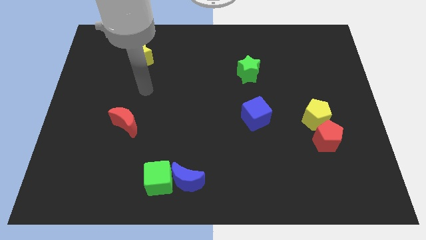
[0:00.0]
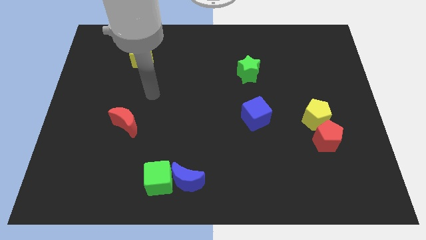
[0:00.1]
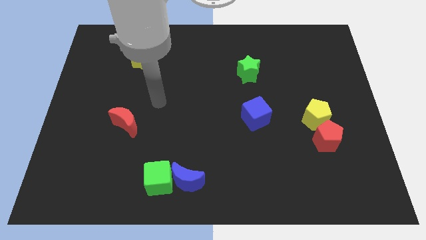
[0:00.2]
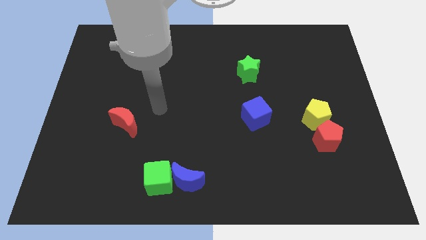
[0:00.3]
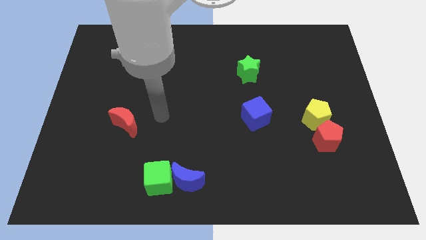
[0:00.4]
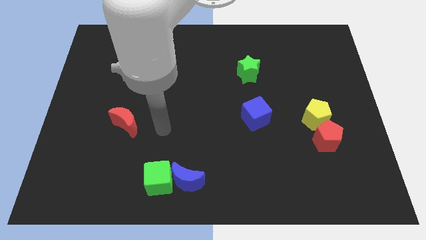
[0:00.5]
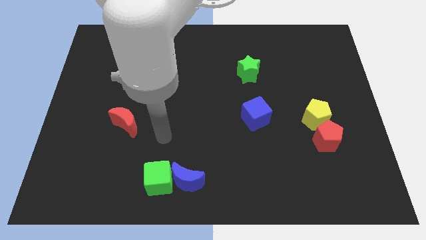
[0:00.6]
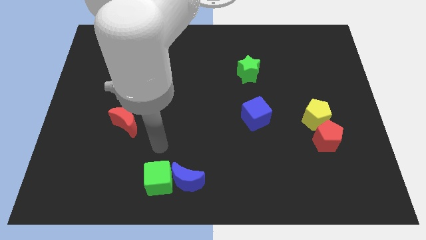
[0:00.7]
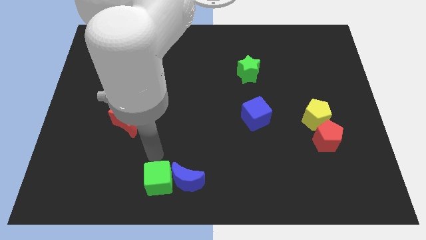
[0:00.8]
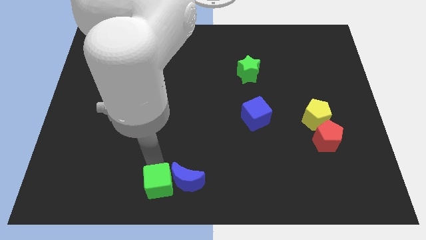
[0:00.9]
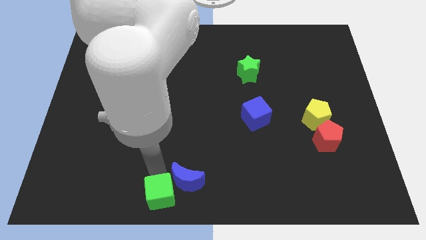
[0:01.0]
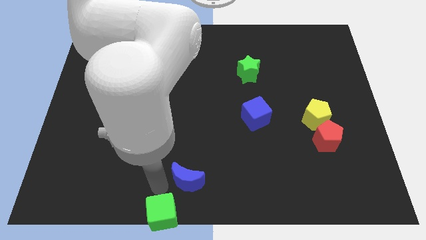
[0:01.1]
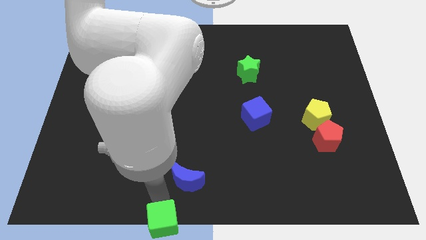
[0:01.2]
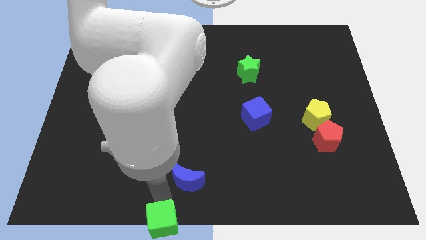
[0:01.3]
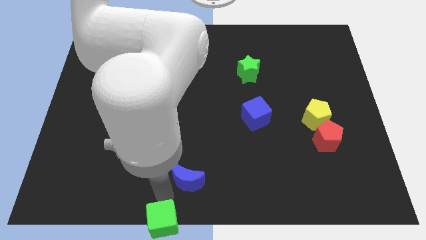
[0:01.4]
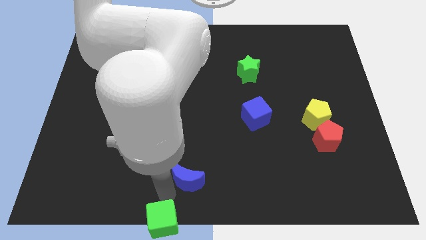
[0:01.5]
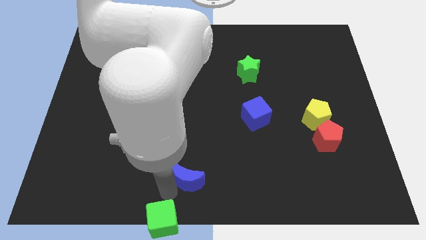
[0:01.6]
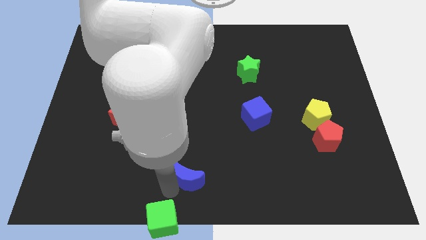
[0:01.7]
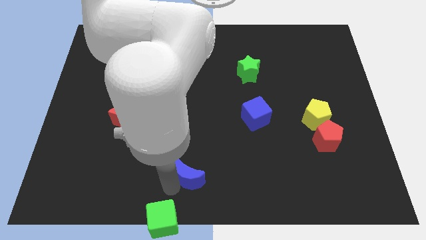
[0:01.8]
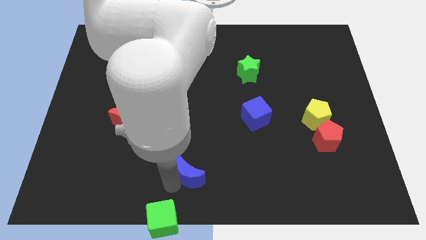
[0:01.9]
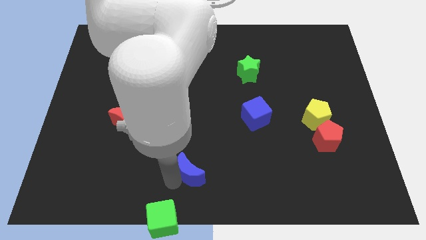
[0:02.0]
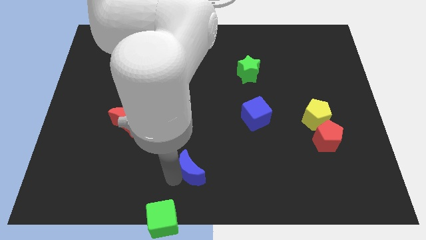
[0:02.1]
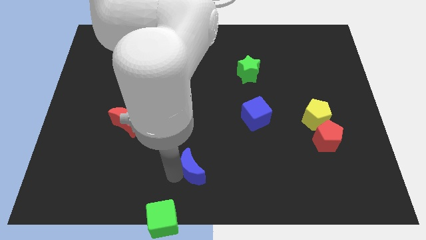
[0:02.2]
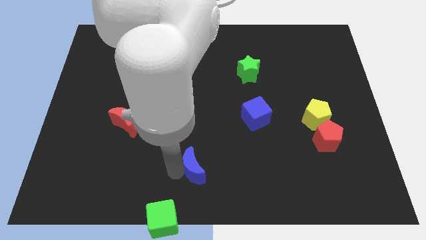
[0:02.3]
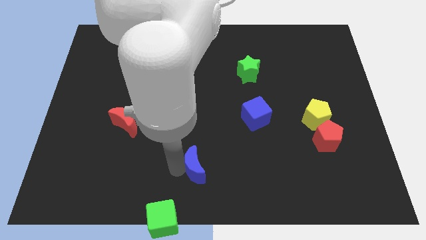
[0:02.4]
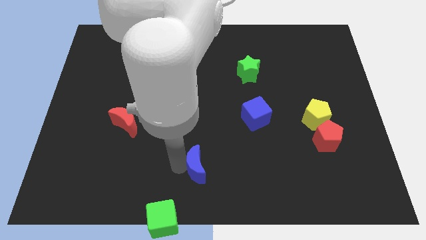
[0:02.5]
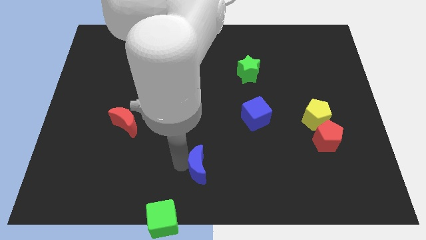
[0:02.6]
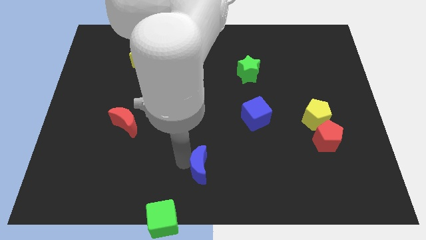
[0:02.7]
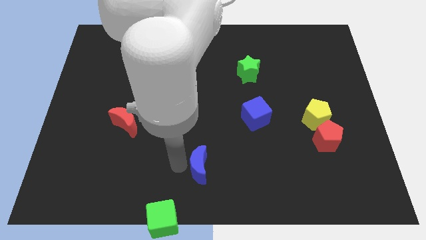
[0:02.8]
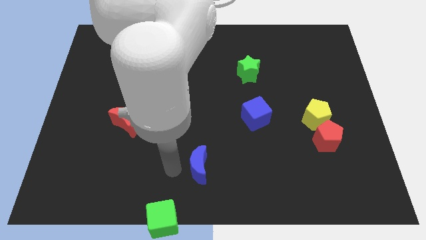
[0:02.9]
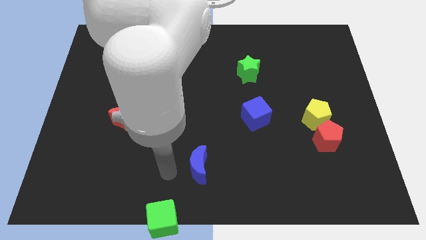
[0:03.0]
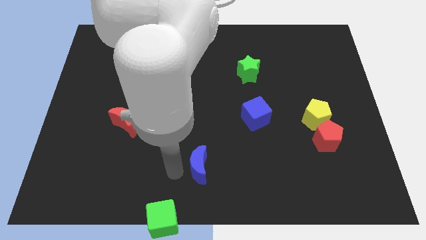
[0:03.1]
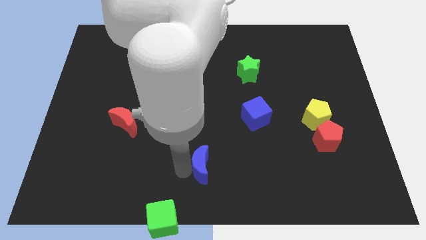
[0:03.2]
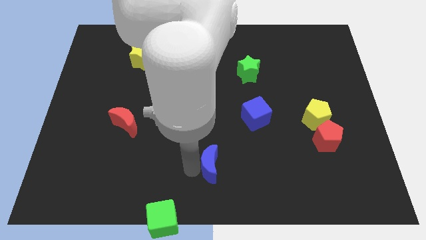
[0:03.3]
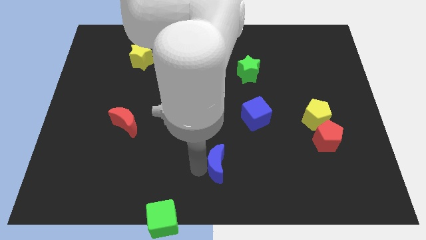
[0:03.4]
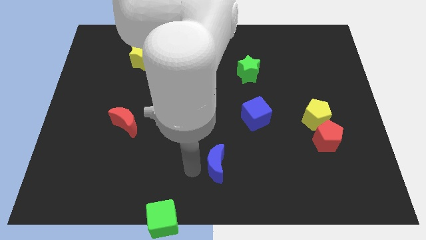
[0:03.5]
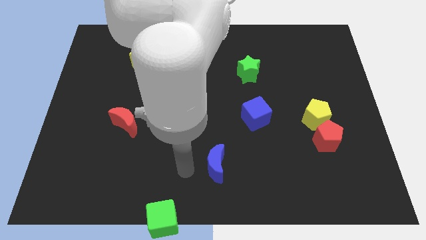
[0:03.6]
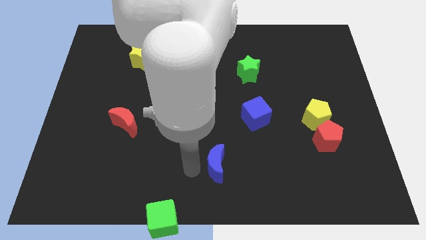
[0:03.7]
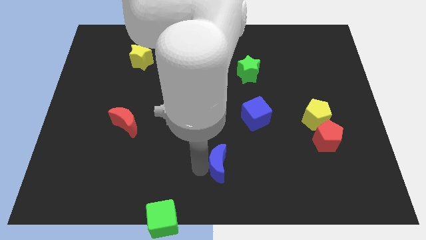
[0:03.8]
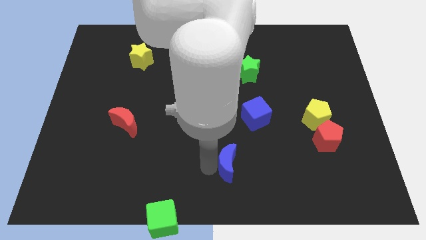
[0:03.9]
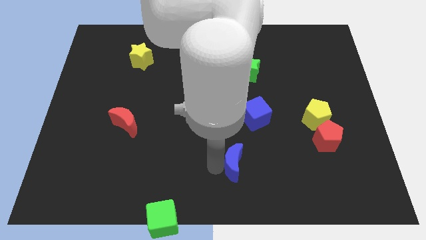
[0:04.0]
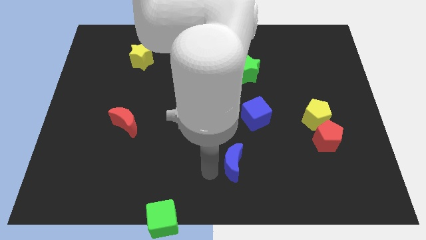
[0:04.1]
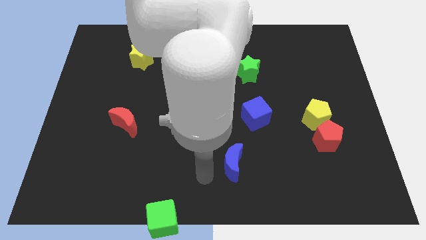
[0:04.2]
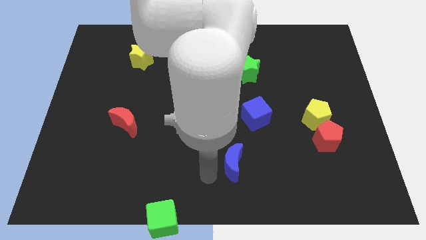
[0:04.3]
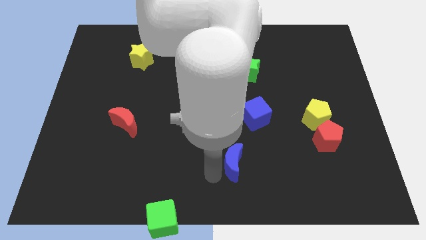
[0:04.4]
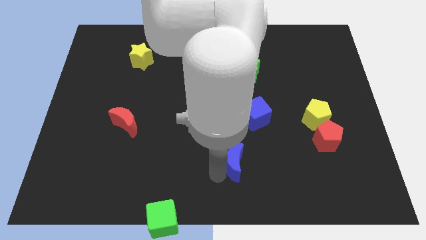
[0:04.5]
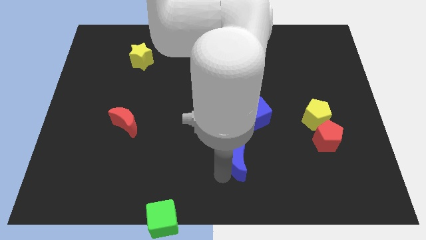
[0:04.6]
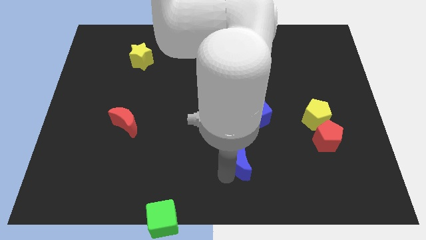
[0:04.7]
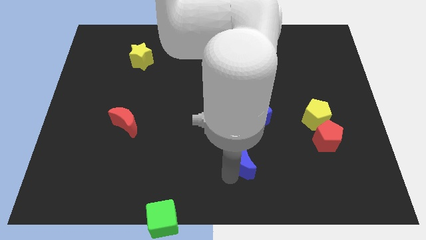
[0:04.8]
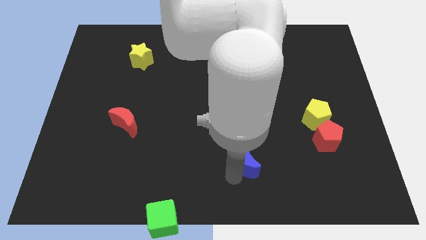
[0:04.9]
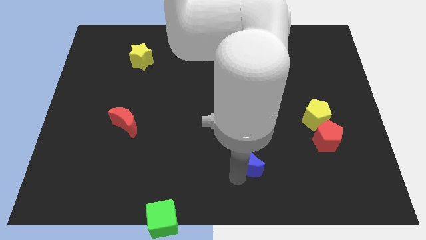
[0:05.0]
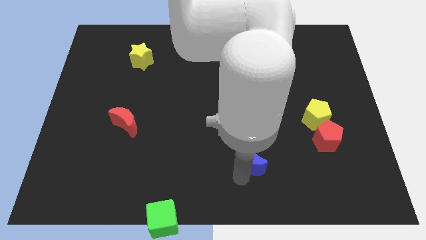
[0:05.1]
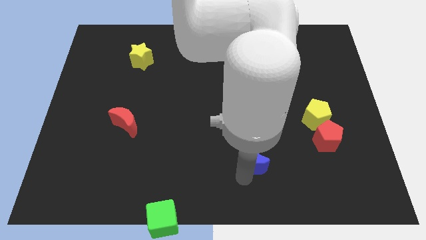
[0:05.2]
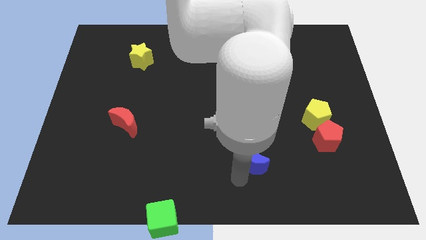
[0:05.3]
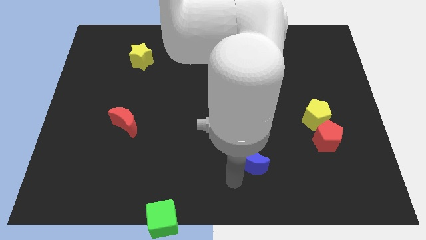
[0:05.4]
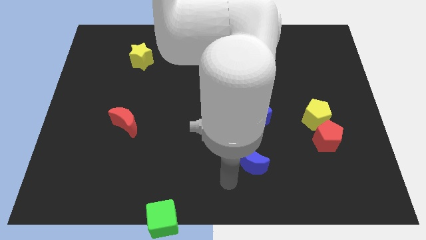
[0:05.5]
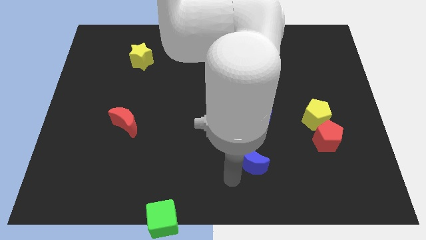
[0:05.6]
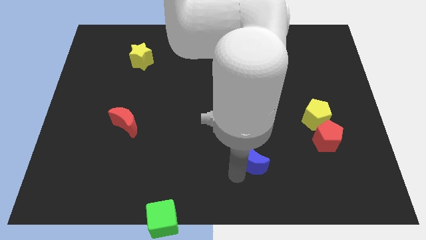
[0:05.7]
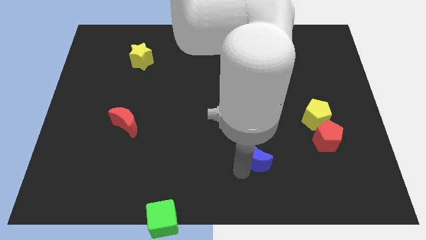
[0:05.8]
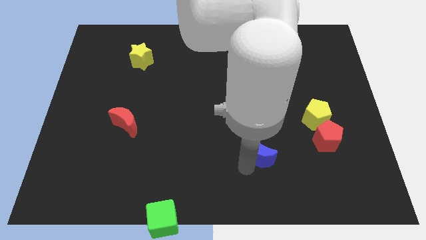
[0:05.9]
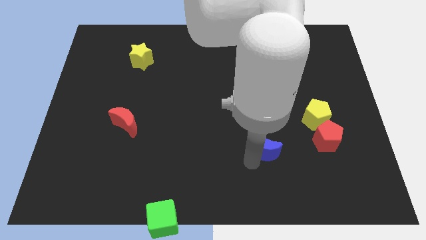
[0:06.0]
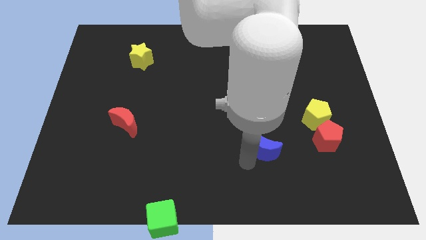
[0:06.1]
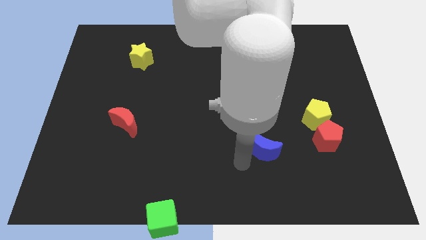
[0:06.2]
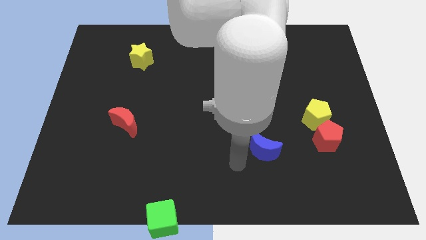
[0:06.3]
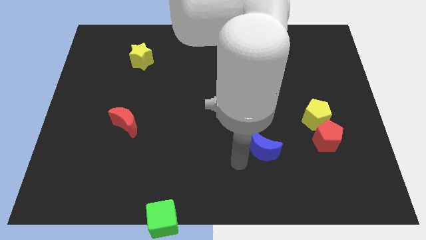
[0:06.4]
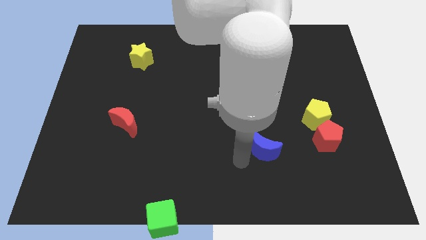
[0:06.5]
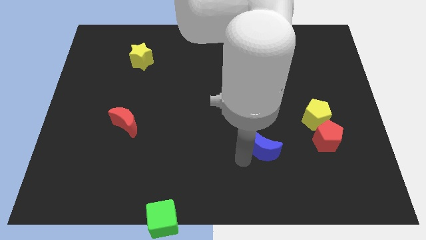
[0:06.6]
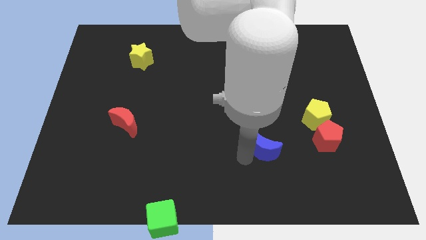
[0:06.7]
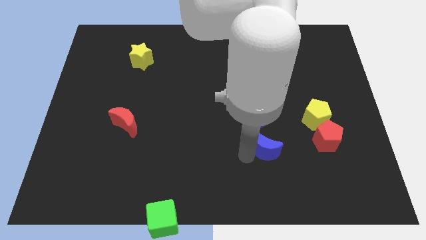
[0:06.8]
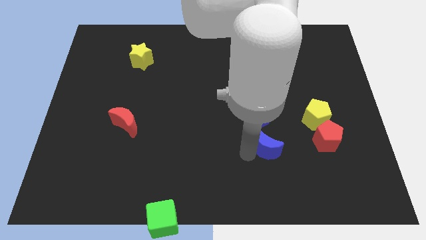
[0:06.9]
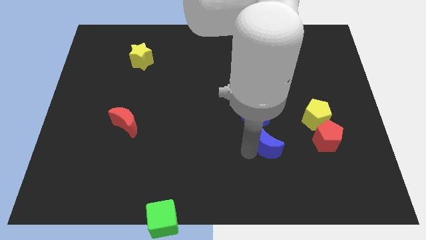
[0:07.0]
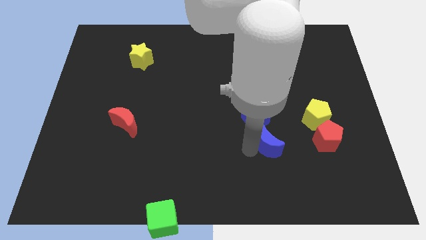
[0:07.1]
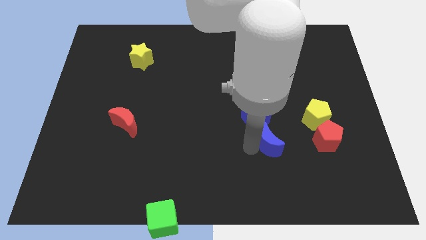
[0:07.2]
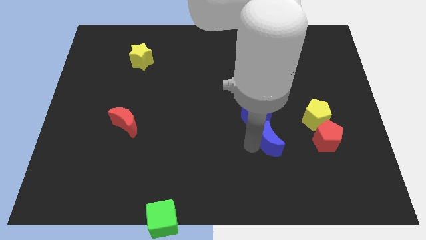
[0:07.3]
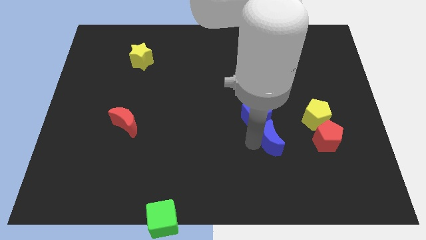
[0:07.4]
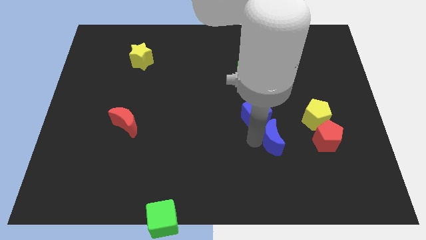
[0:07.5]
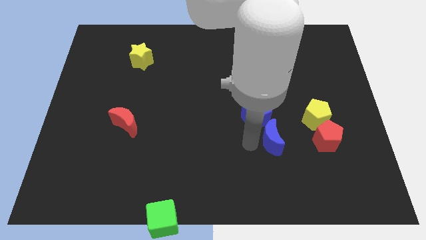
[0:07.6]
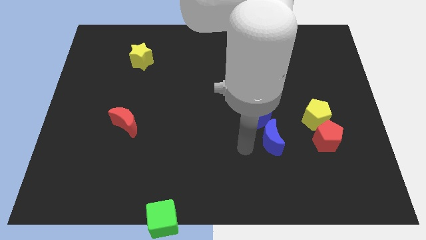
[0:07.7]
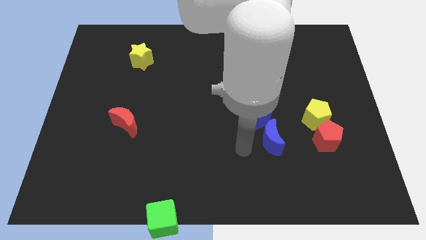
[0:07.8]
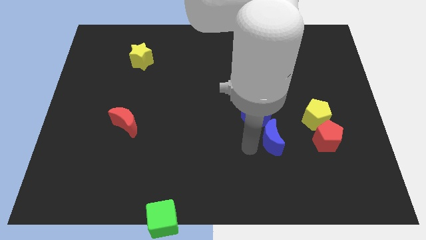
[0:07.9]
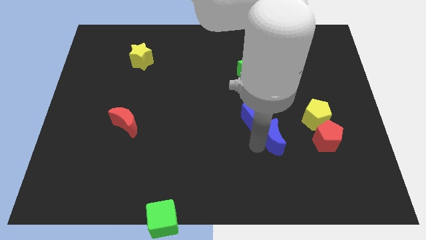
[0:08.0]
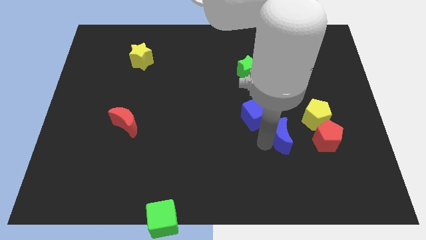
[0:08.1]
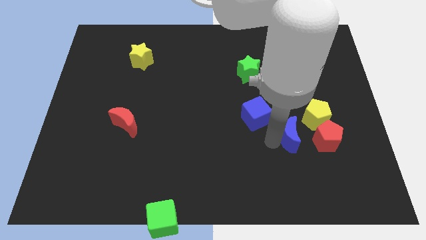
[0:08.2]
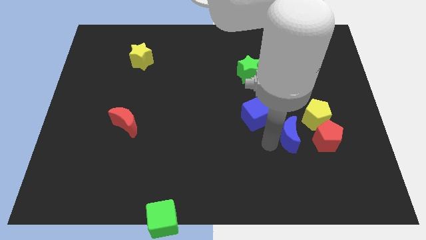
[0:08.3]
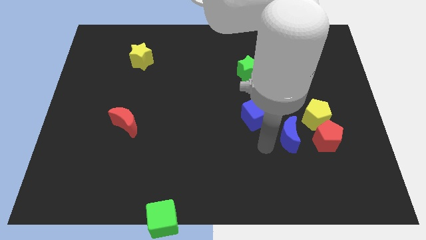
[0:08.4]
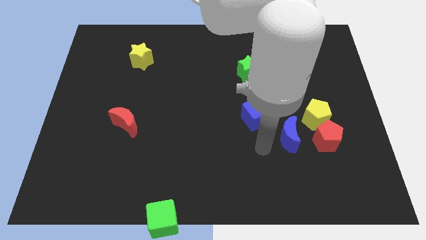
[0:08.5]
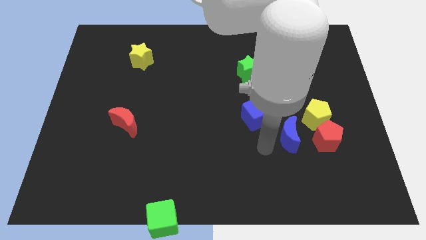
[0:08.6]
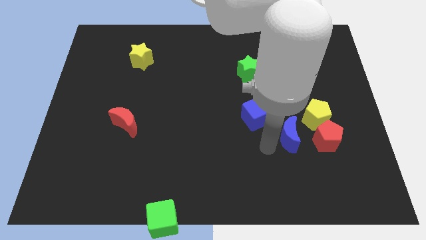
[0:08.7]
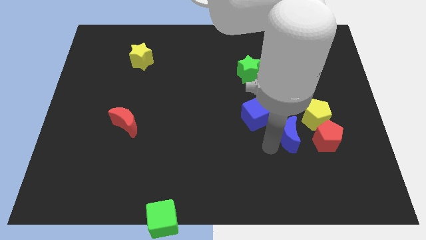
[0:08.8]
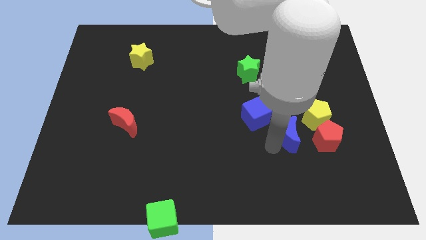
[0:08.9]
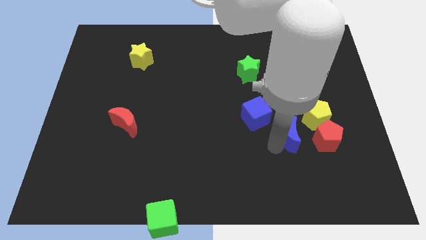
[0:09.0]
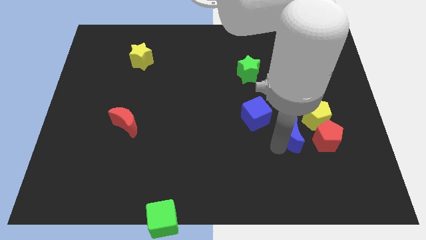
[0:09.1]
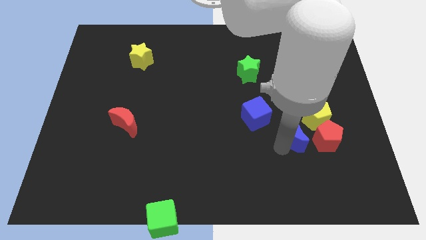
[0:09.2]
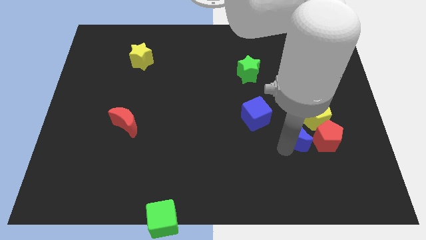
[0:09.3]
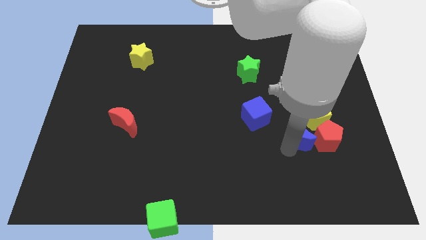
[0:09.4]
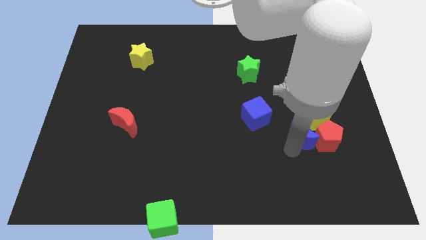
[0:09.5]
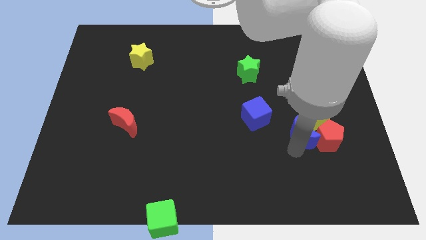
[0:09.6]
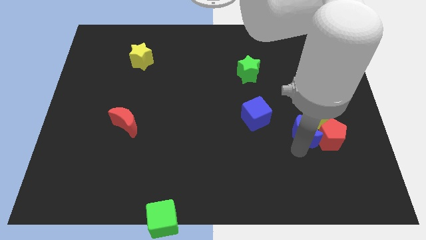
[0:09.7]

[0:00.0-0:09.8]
slide the blue moon to the yellow pentagon
